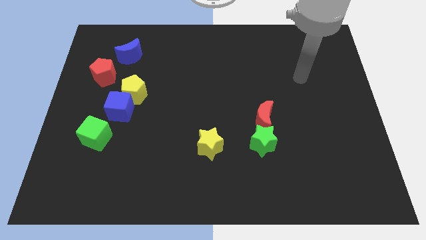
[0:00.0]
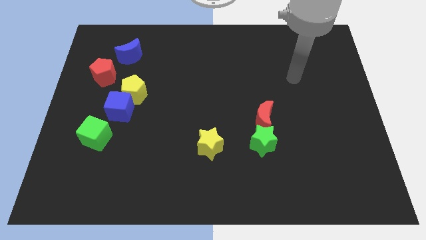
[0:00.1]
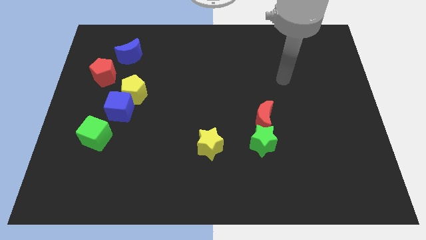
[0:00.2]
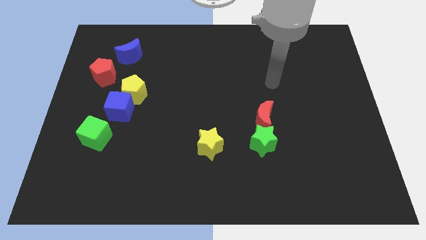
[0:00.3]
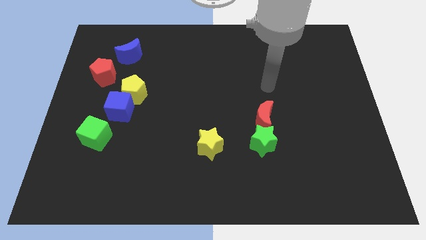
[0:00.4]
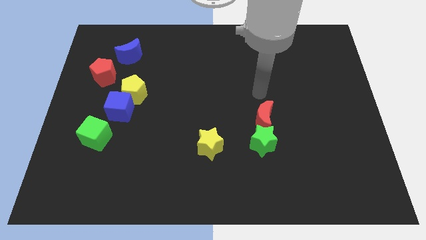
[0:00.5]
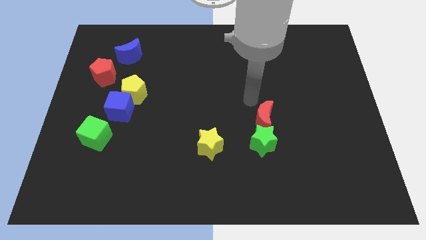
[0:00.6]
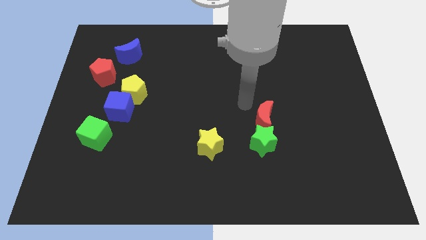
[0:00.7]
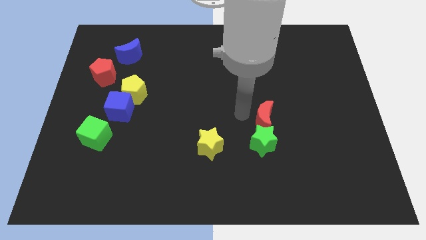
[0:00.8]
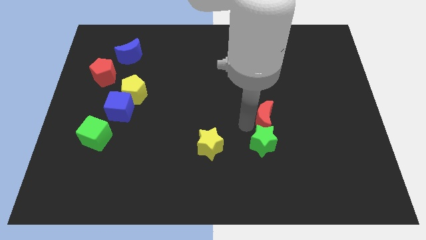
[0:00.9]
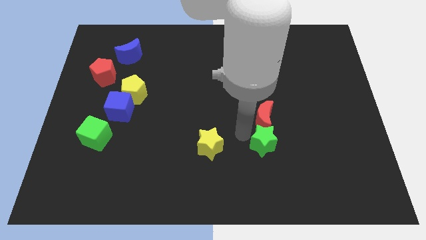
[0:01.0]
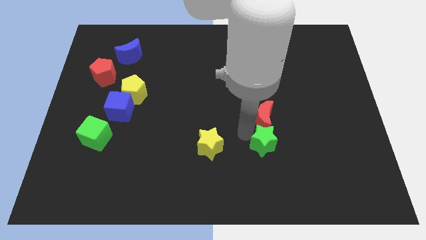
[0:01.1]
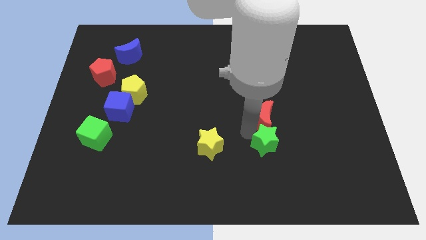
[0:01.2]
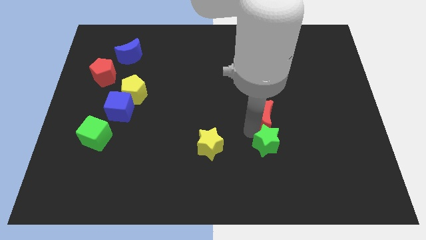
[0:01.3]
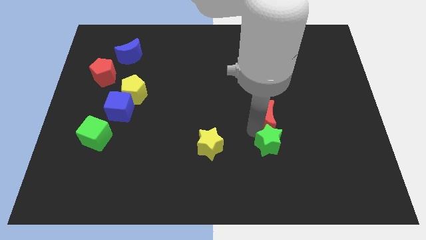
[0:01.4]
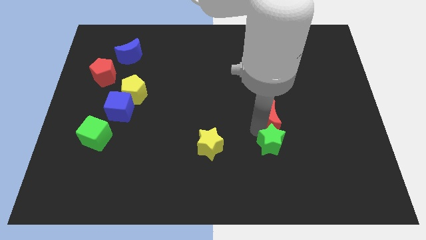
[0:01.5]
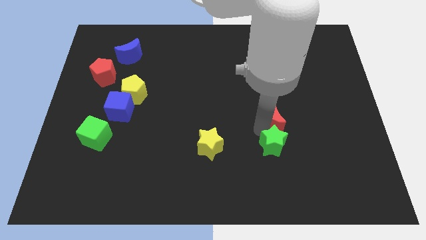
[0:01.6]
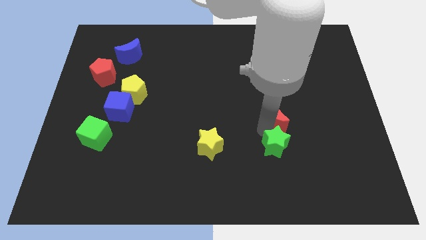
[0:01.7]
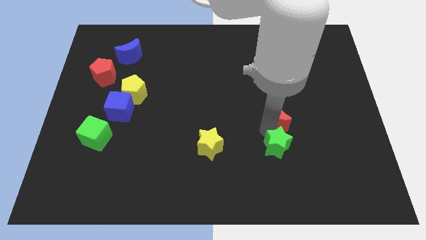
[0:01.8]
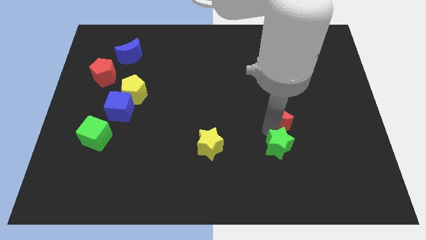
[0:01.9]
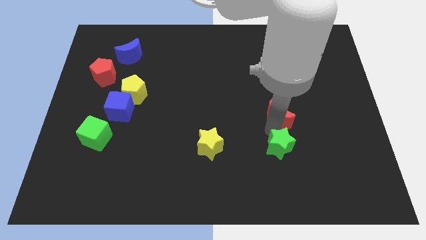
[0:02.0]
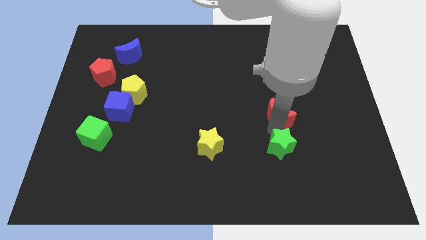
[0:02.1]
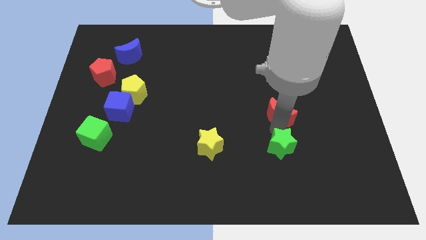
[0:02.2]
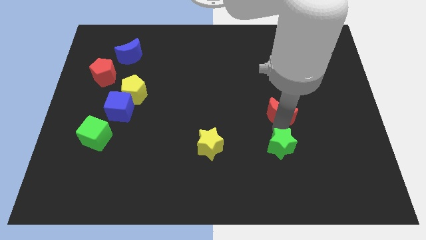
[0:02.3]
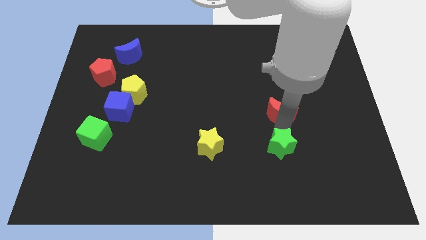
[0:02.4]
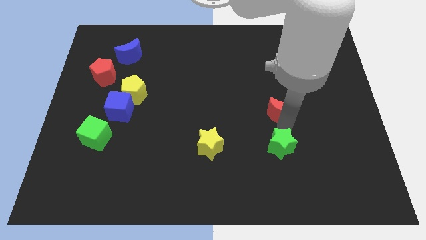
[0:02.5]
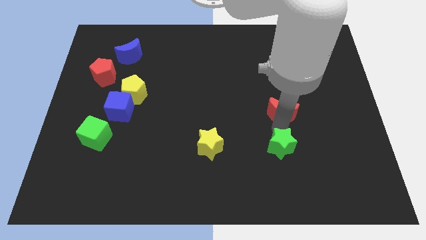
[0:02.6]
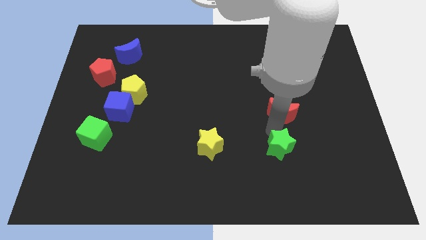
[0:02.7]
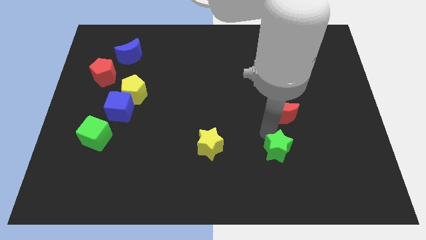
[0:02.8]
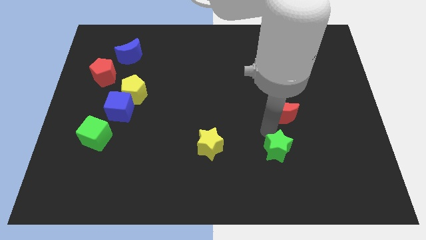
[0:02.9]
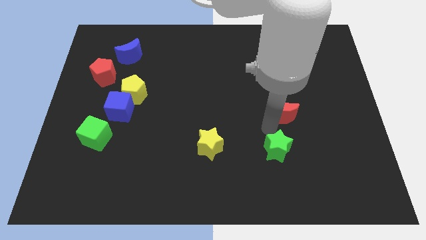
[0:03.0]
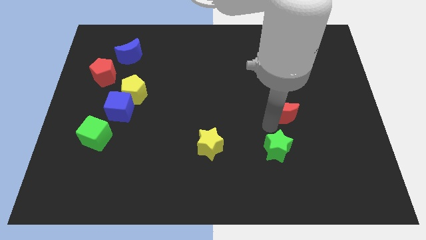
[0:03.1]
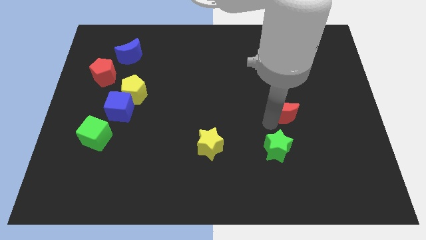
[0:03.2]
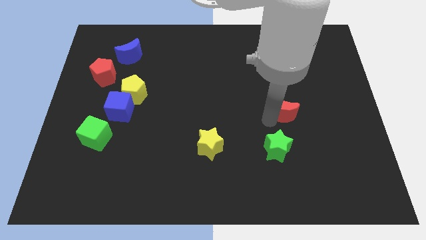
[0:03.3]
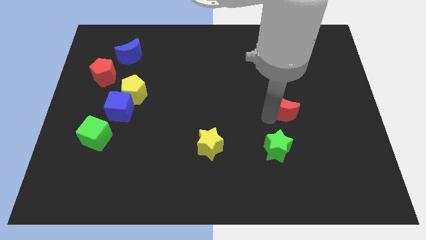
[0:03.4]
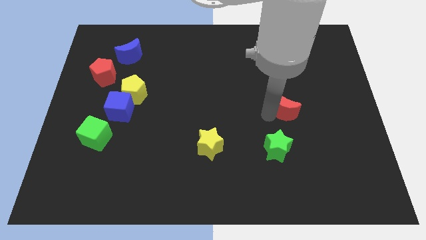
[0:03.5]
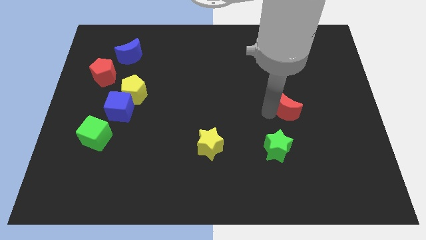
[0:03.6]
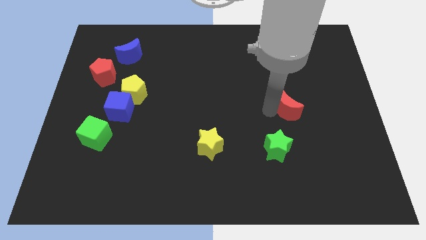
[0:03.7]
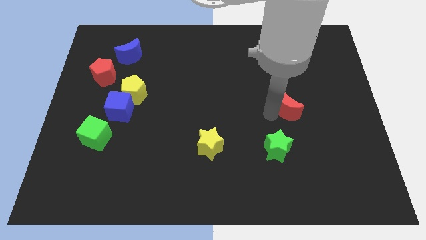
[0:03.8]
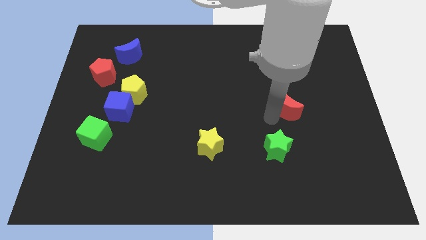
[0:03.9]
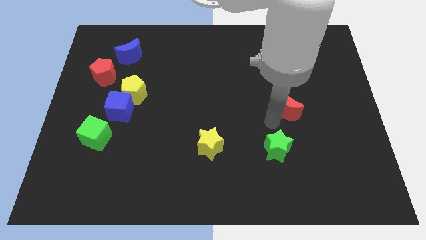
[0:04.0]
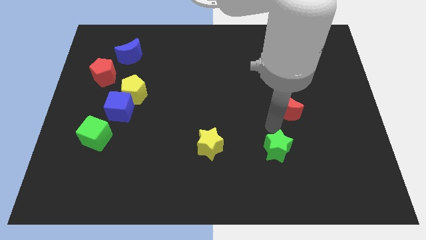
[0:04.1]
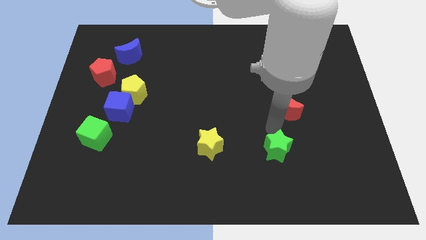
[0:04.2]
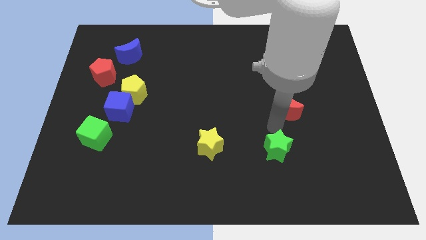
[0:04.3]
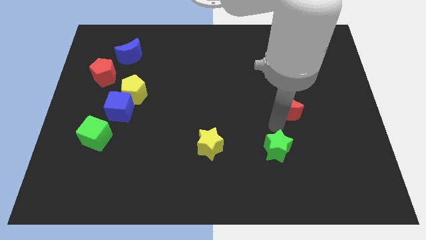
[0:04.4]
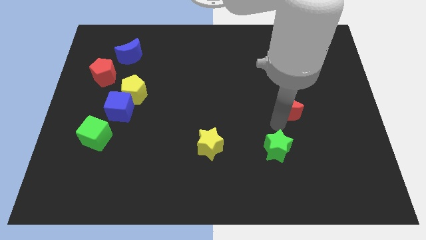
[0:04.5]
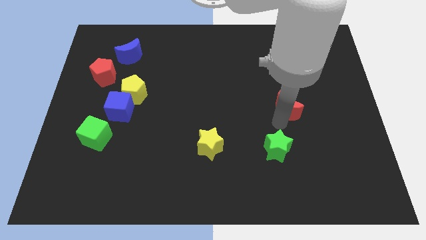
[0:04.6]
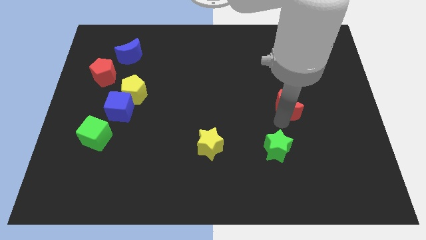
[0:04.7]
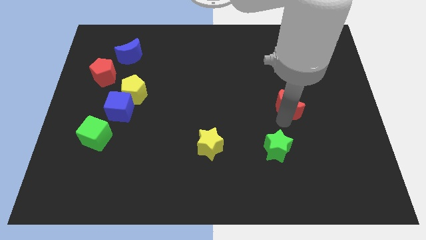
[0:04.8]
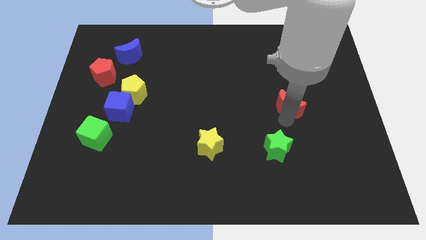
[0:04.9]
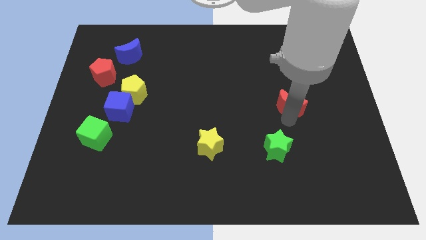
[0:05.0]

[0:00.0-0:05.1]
slide the red moon slightly diagonally upwards and right

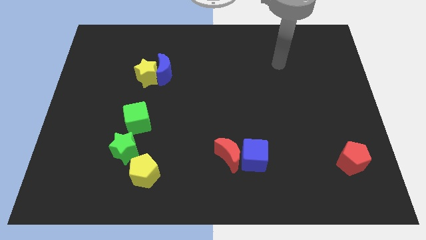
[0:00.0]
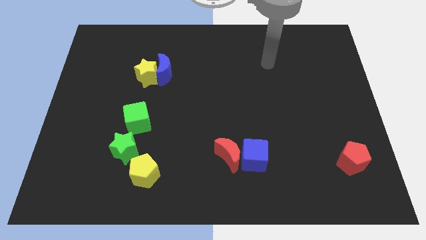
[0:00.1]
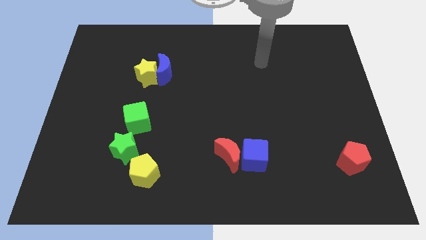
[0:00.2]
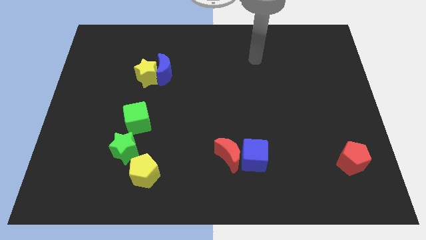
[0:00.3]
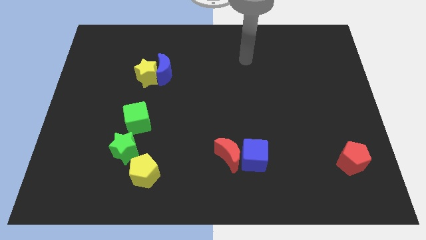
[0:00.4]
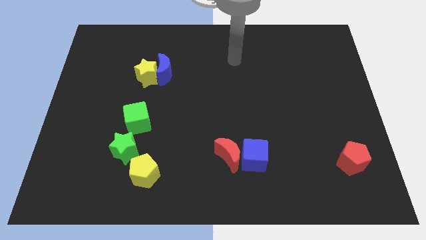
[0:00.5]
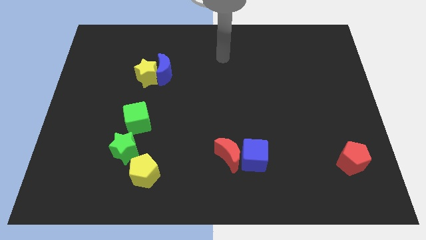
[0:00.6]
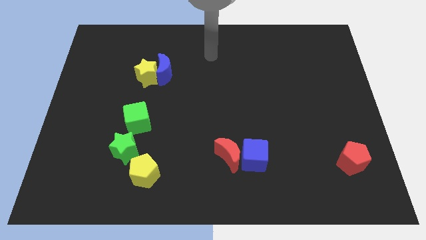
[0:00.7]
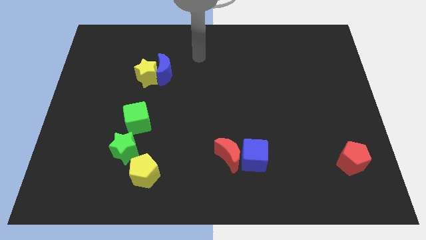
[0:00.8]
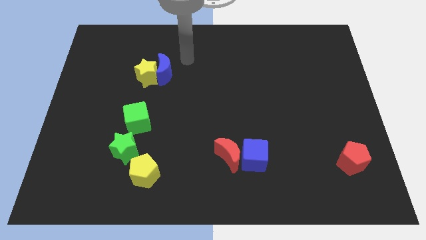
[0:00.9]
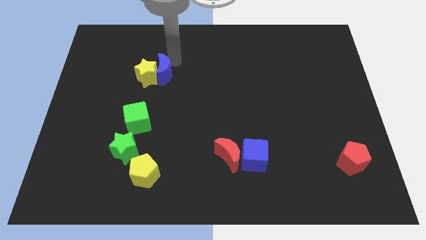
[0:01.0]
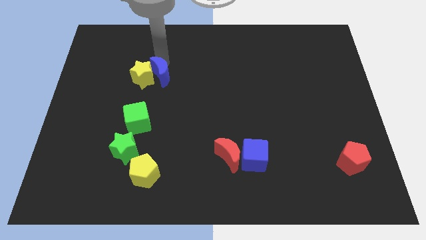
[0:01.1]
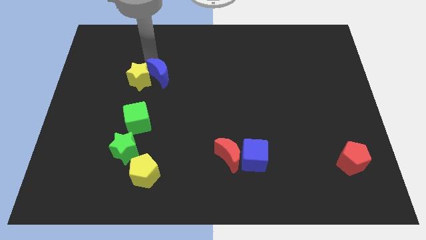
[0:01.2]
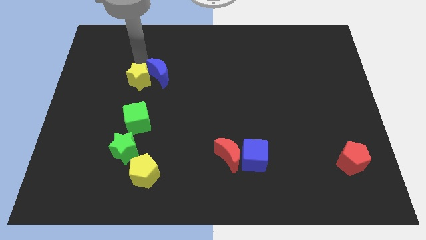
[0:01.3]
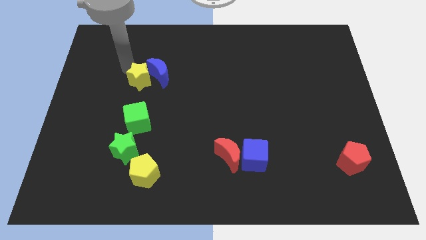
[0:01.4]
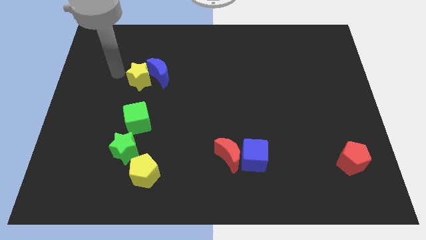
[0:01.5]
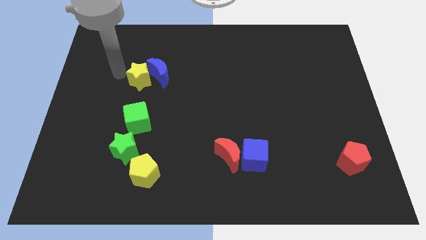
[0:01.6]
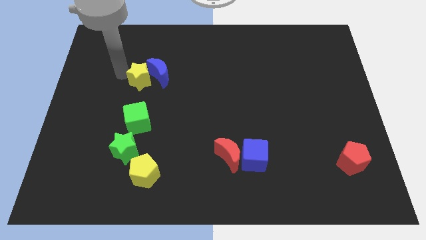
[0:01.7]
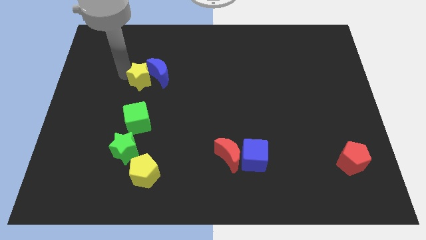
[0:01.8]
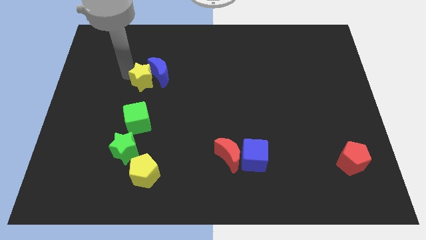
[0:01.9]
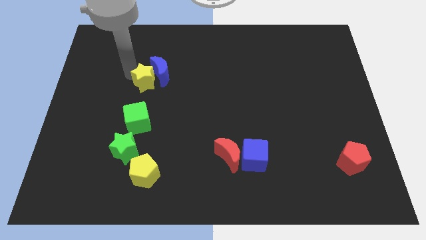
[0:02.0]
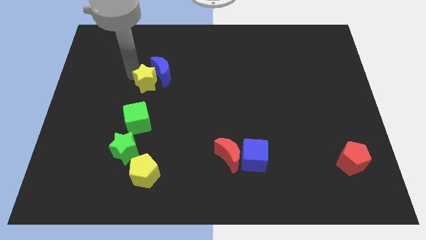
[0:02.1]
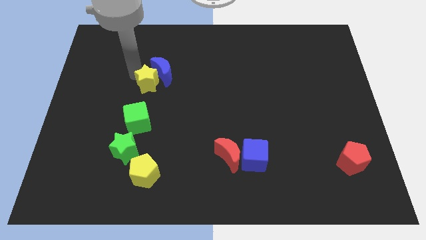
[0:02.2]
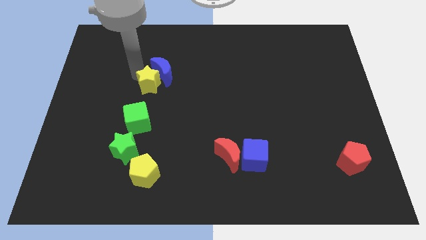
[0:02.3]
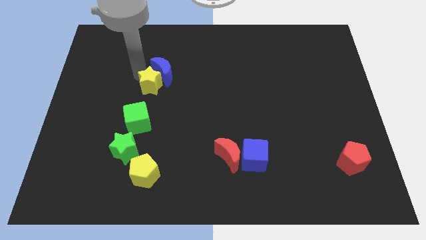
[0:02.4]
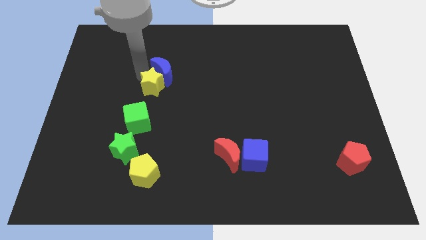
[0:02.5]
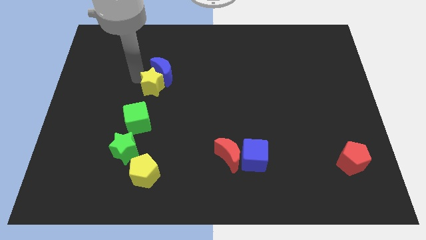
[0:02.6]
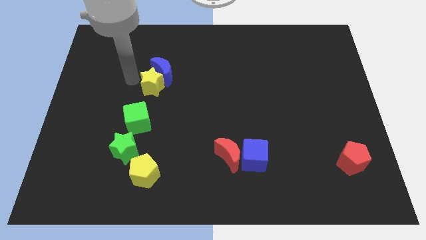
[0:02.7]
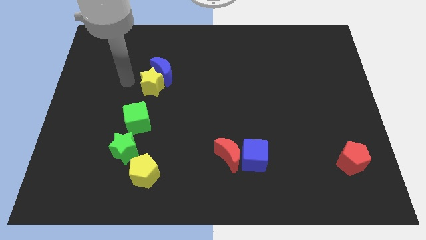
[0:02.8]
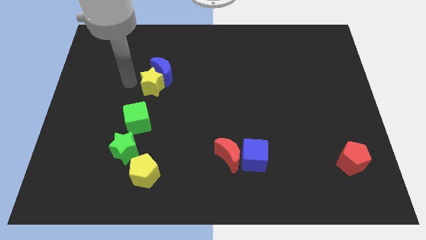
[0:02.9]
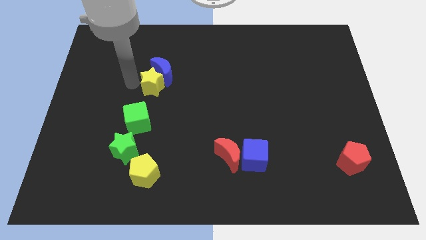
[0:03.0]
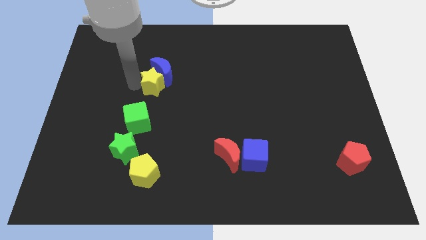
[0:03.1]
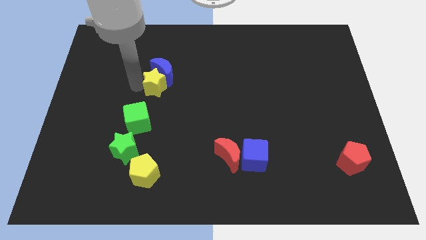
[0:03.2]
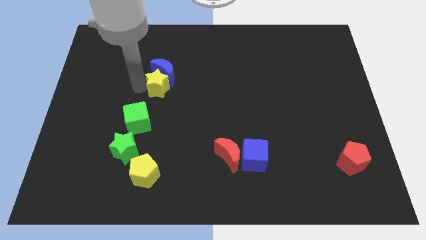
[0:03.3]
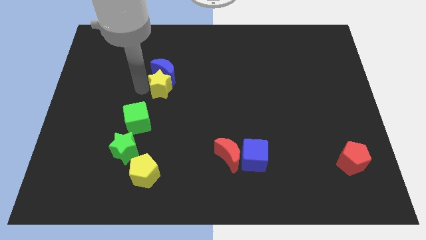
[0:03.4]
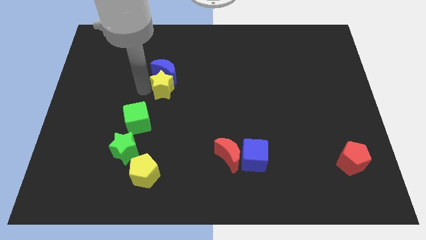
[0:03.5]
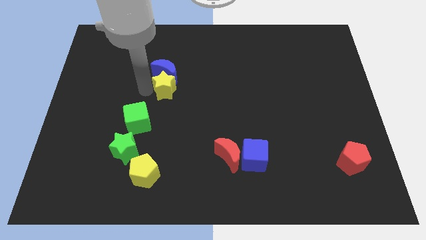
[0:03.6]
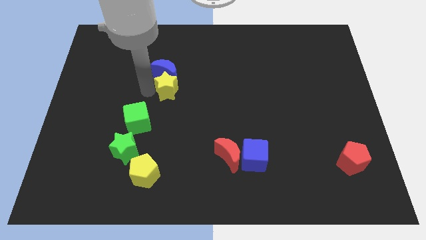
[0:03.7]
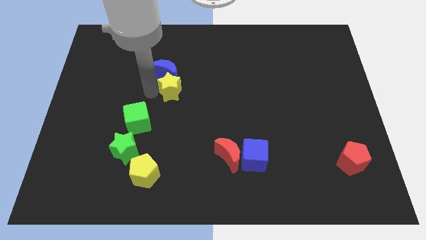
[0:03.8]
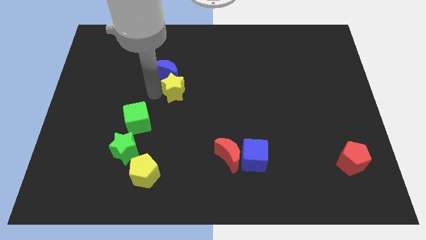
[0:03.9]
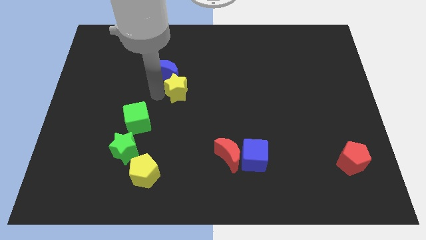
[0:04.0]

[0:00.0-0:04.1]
slightly move the yellow star right
